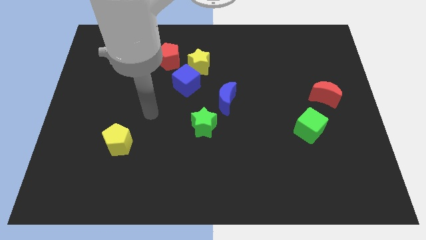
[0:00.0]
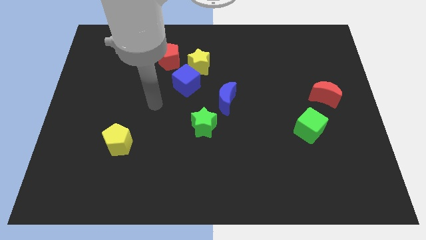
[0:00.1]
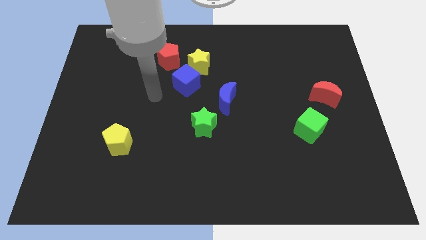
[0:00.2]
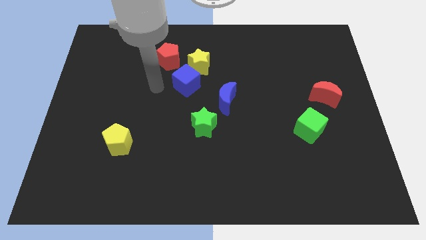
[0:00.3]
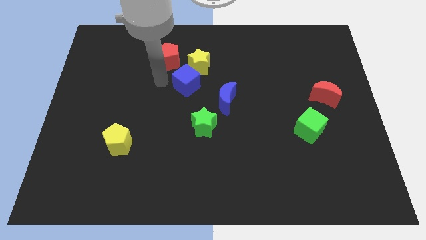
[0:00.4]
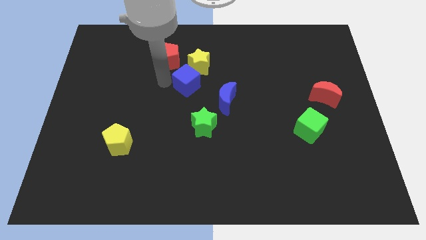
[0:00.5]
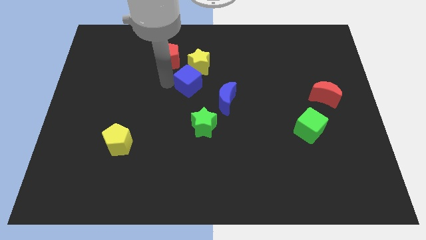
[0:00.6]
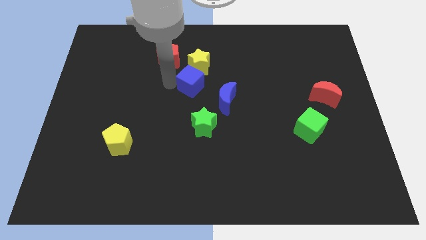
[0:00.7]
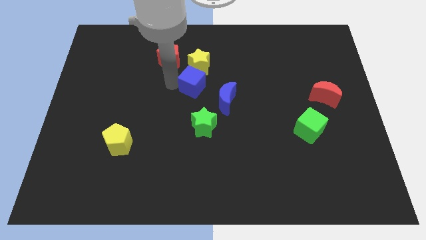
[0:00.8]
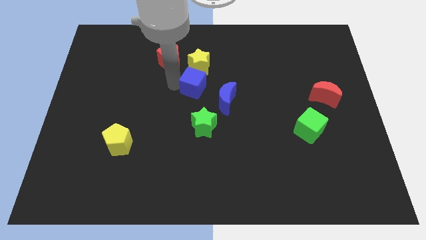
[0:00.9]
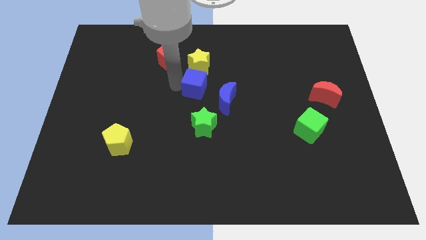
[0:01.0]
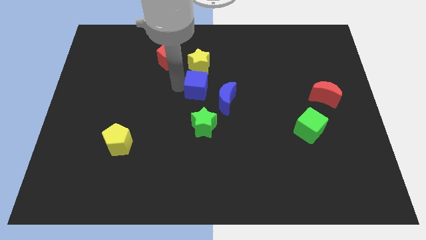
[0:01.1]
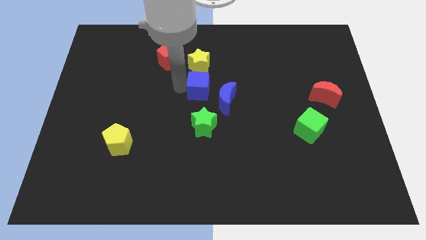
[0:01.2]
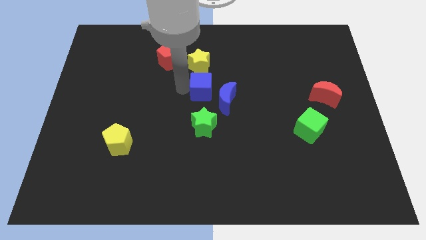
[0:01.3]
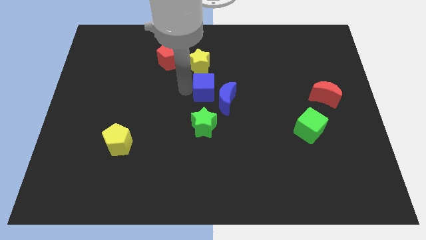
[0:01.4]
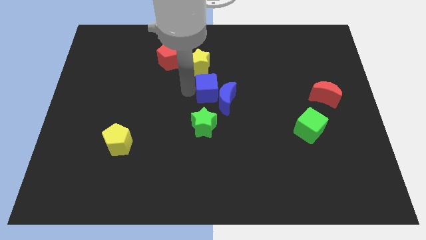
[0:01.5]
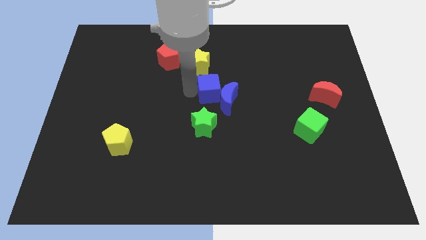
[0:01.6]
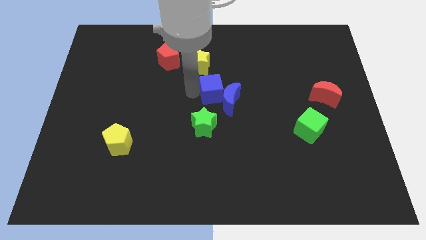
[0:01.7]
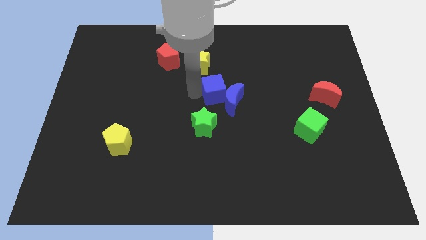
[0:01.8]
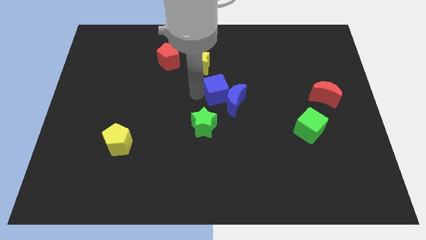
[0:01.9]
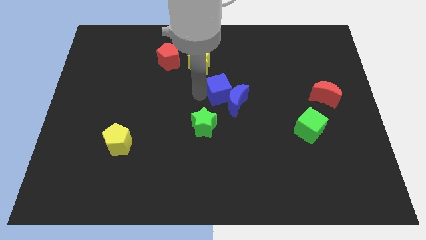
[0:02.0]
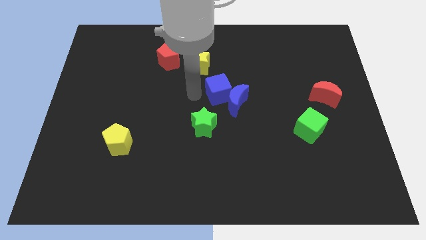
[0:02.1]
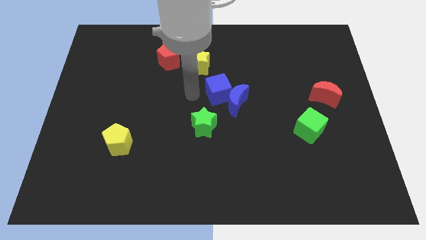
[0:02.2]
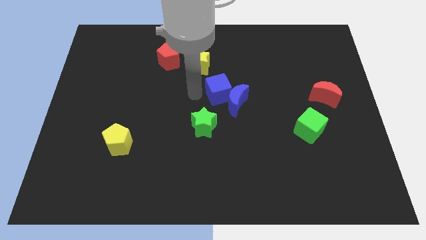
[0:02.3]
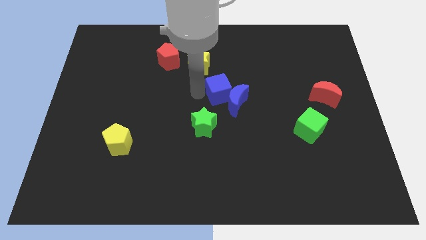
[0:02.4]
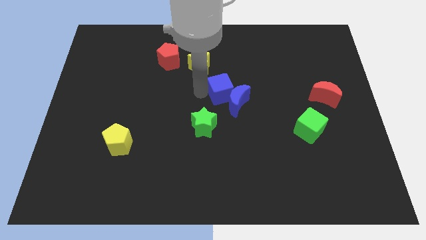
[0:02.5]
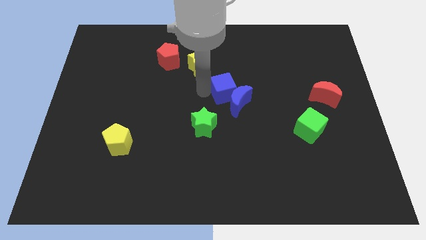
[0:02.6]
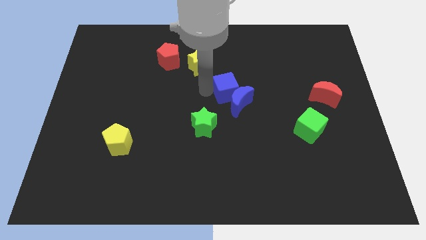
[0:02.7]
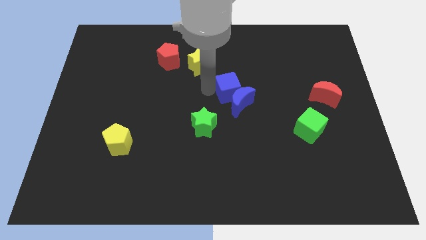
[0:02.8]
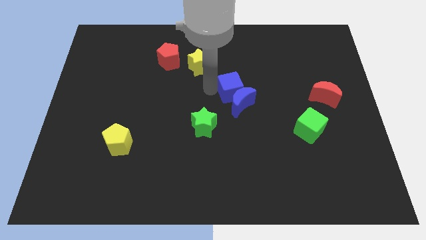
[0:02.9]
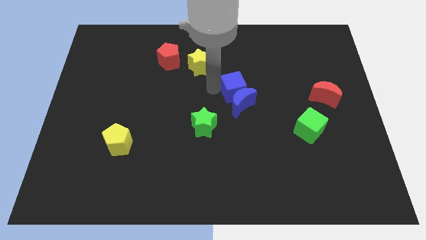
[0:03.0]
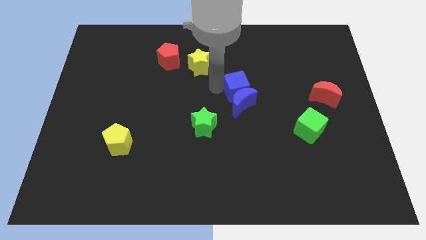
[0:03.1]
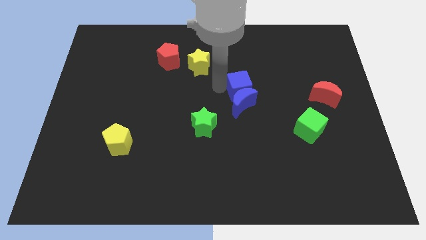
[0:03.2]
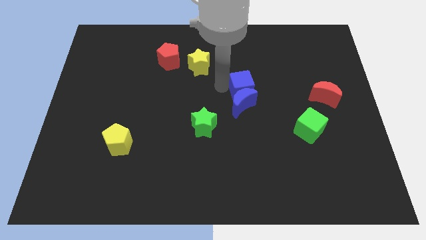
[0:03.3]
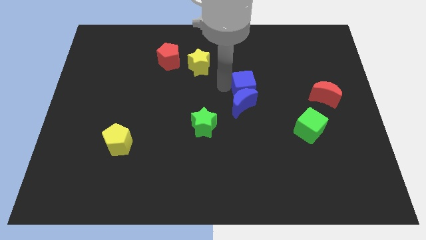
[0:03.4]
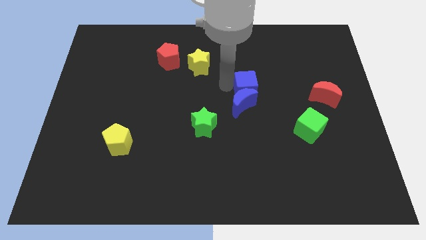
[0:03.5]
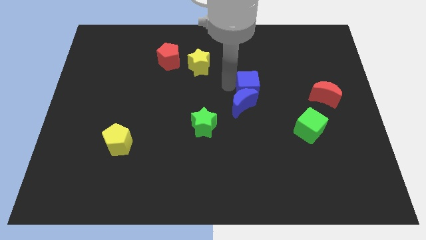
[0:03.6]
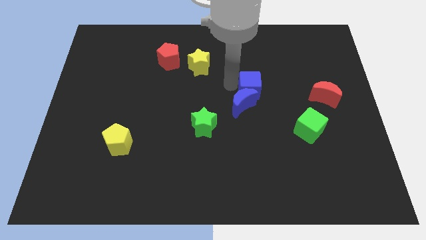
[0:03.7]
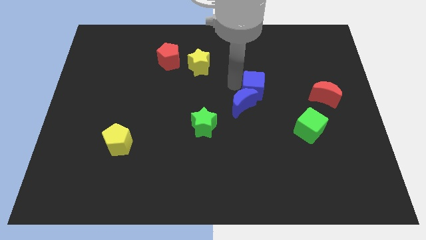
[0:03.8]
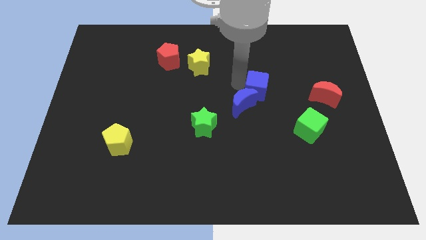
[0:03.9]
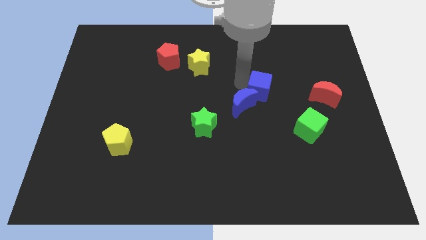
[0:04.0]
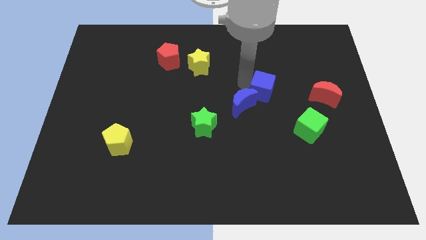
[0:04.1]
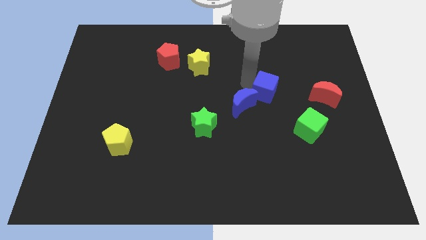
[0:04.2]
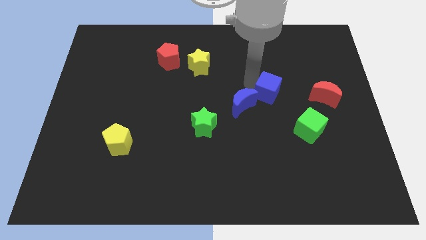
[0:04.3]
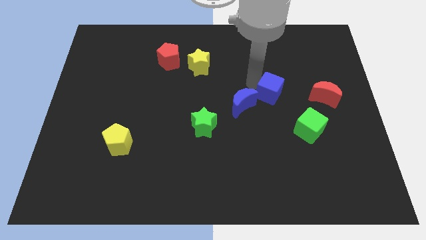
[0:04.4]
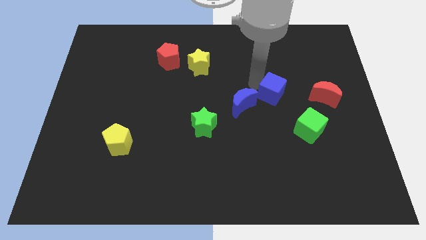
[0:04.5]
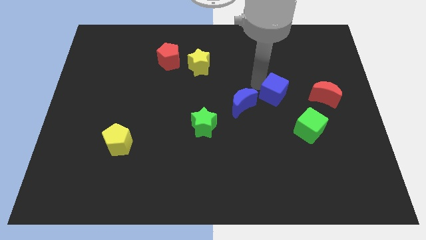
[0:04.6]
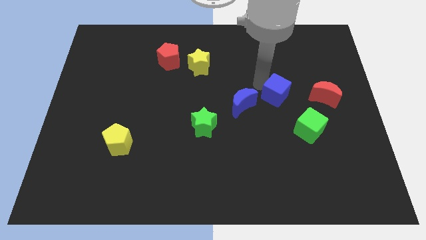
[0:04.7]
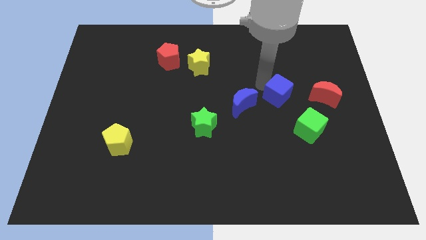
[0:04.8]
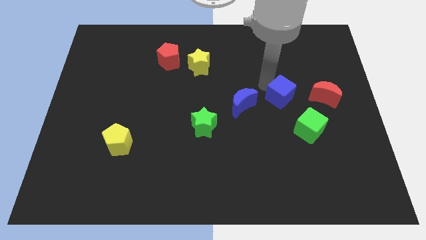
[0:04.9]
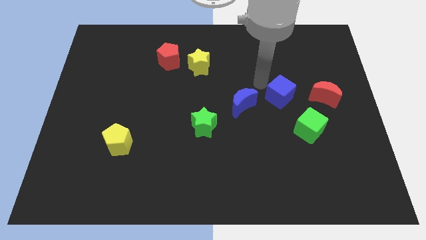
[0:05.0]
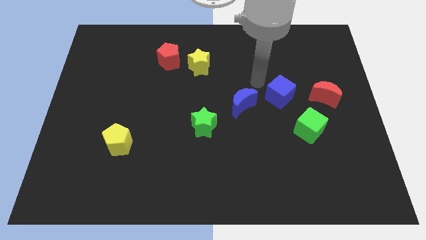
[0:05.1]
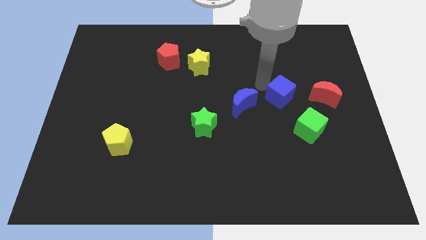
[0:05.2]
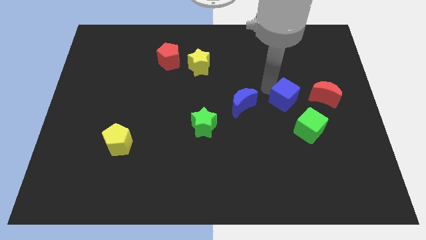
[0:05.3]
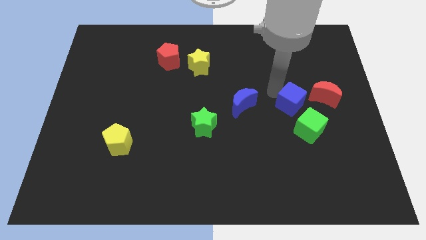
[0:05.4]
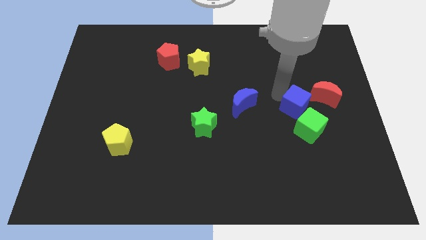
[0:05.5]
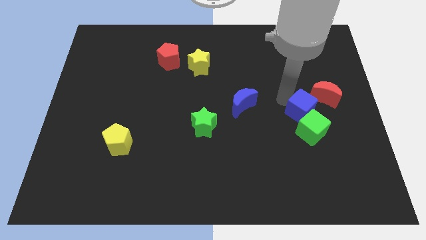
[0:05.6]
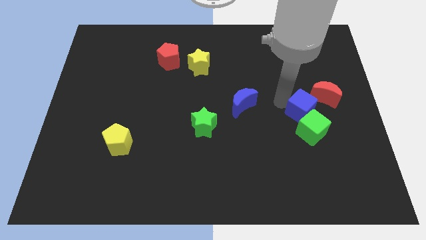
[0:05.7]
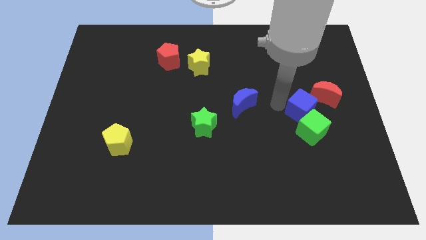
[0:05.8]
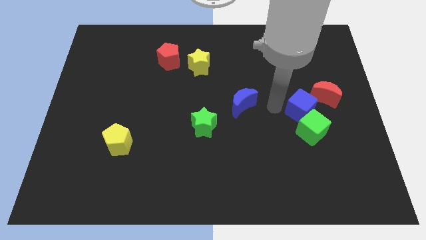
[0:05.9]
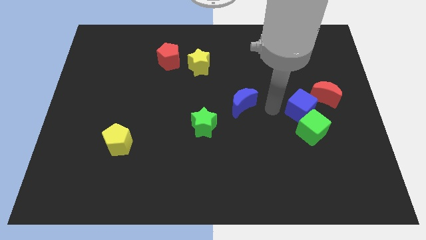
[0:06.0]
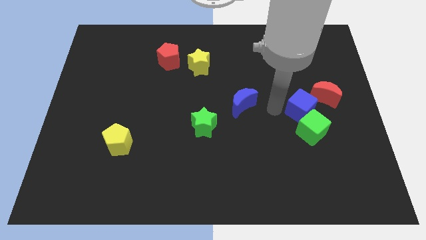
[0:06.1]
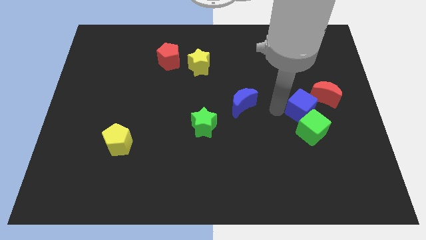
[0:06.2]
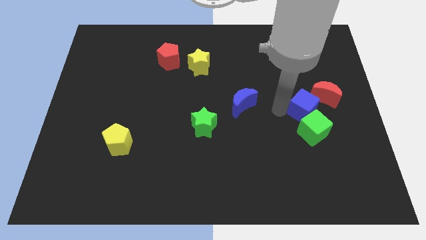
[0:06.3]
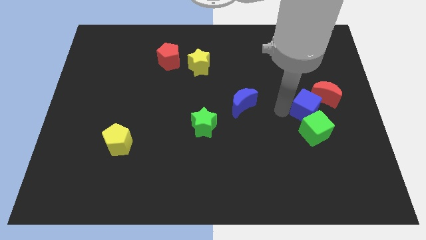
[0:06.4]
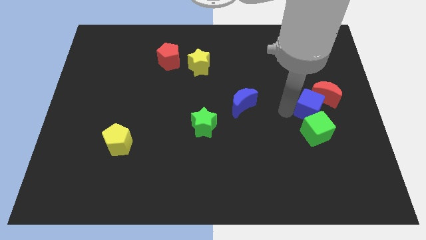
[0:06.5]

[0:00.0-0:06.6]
slide the blue cube below the red moon

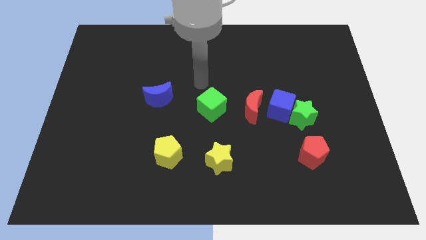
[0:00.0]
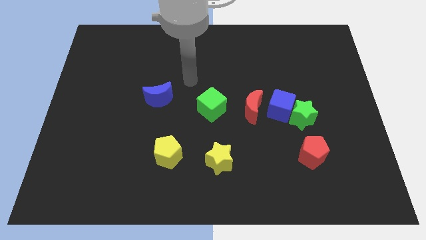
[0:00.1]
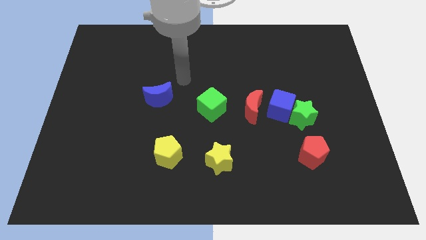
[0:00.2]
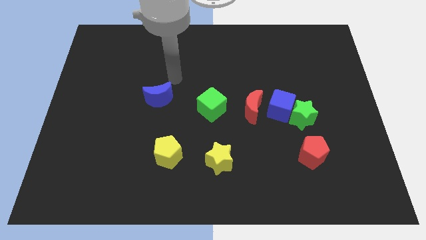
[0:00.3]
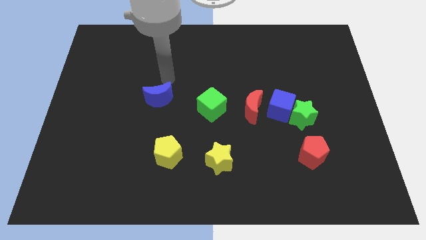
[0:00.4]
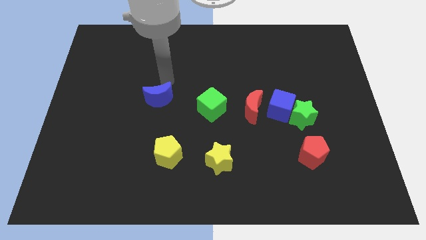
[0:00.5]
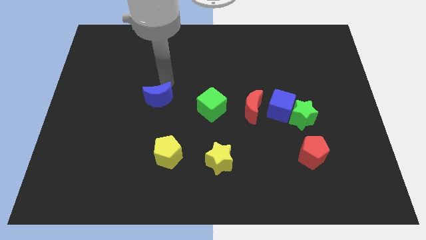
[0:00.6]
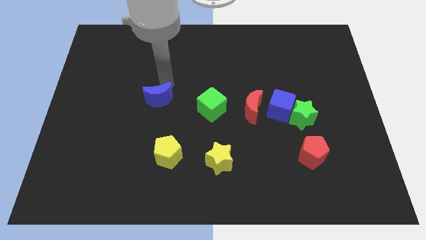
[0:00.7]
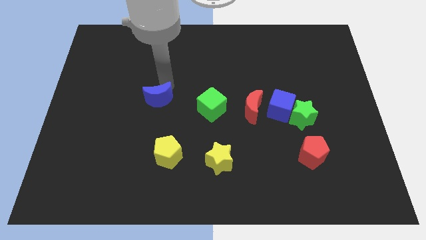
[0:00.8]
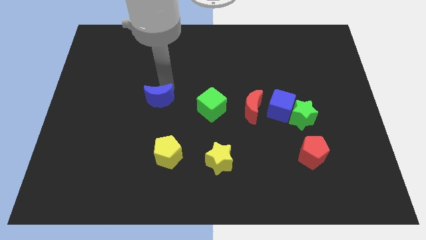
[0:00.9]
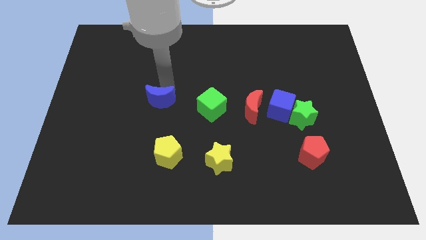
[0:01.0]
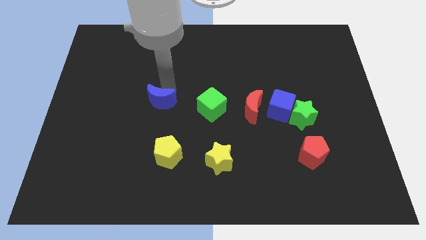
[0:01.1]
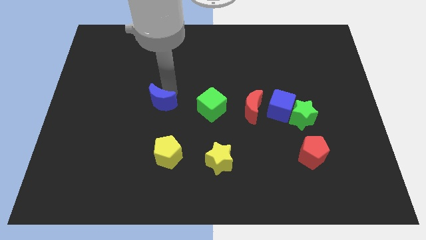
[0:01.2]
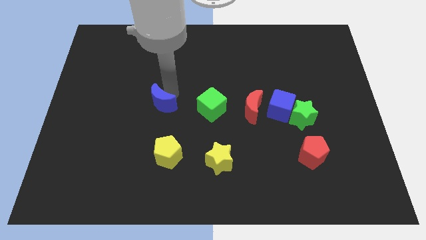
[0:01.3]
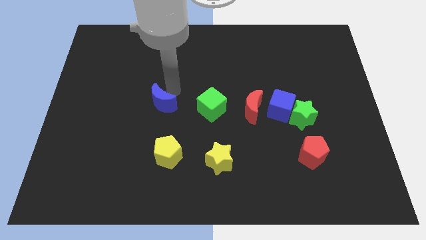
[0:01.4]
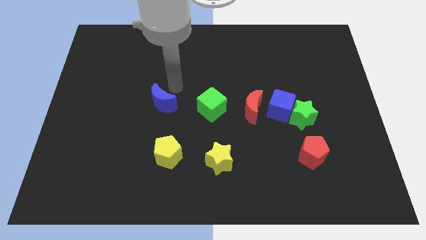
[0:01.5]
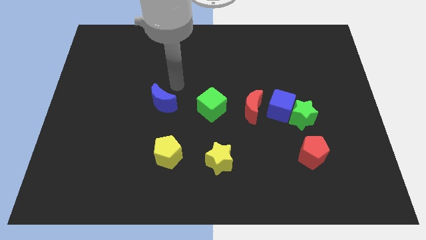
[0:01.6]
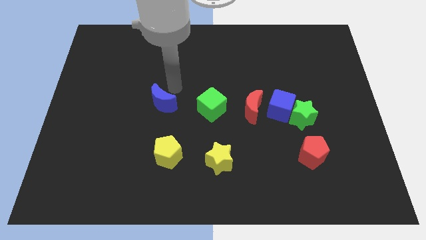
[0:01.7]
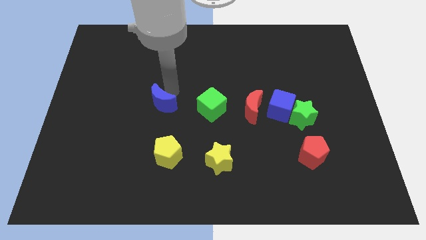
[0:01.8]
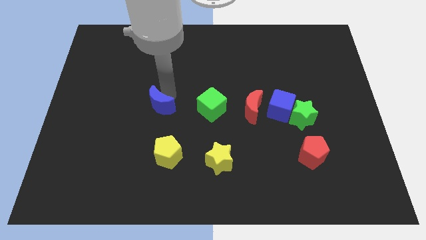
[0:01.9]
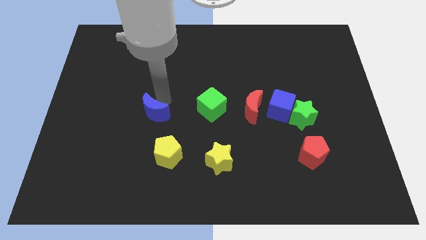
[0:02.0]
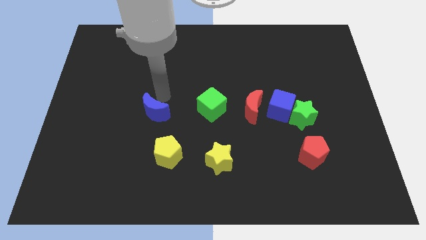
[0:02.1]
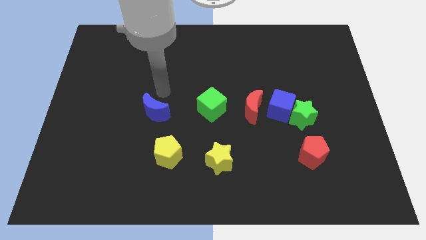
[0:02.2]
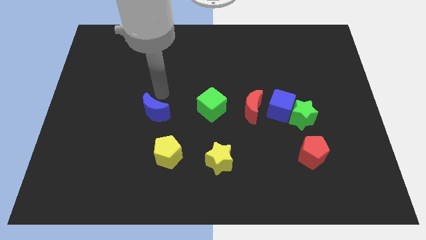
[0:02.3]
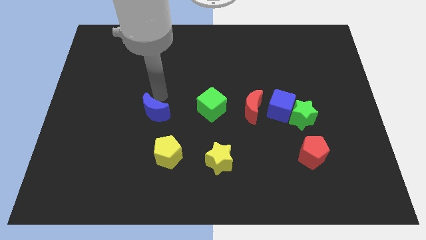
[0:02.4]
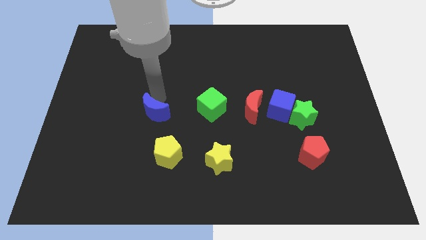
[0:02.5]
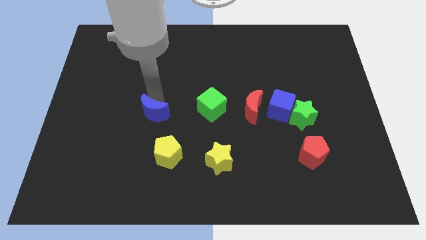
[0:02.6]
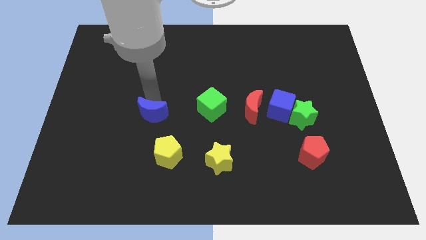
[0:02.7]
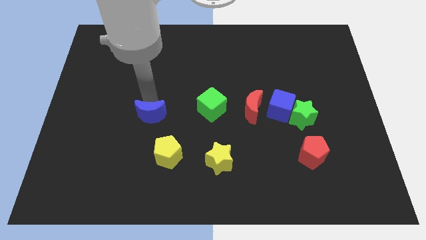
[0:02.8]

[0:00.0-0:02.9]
push the blue moon to the top left of the yellow pentagon
